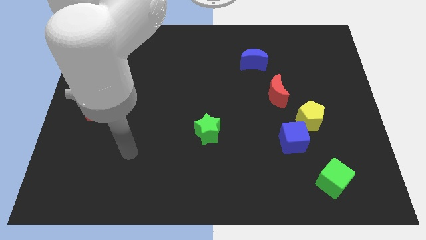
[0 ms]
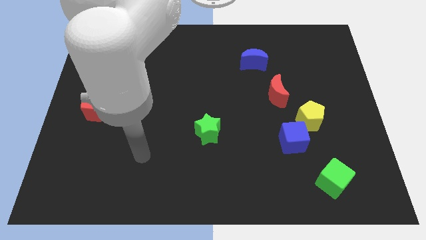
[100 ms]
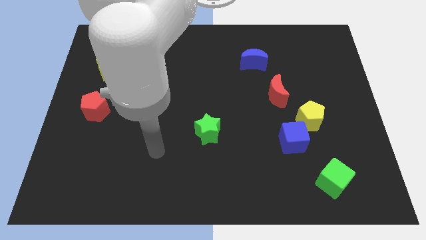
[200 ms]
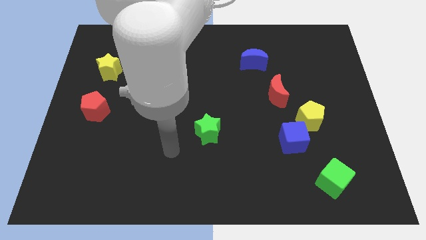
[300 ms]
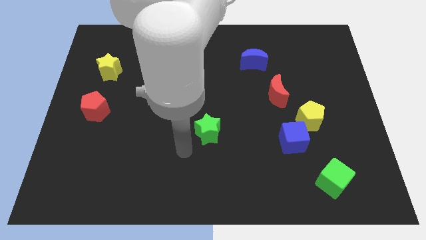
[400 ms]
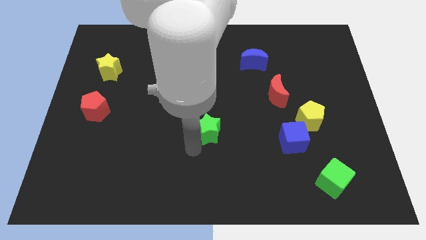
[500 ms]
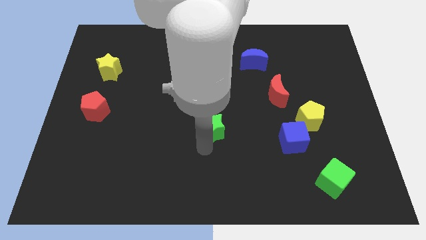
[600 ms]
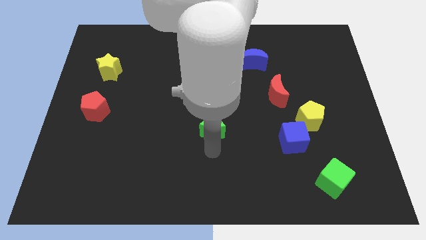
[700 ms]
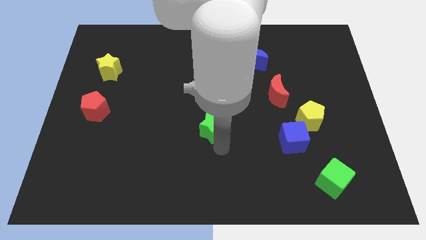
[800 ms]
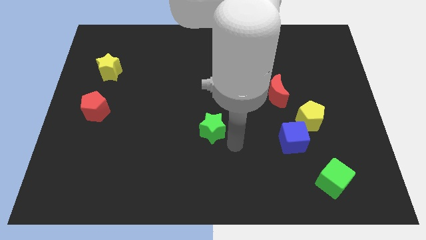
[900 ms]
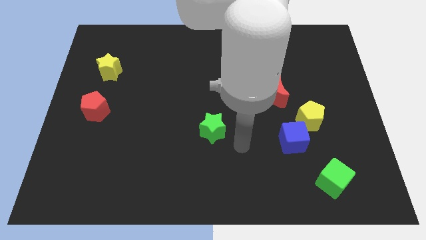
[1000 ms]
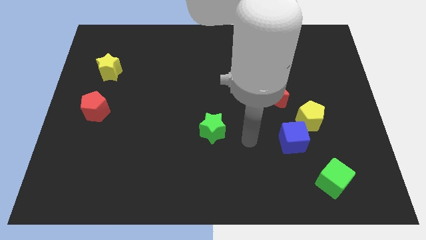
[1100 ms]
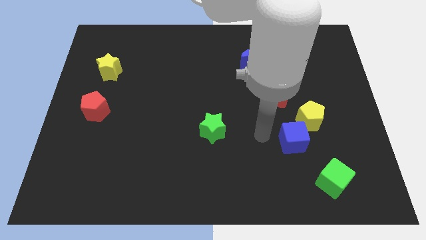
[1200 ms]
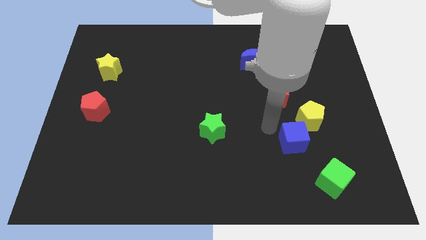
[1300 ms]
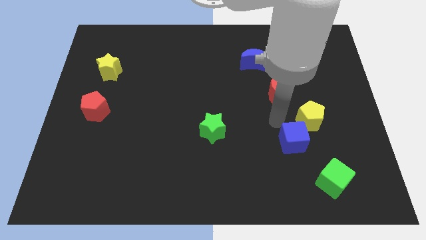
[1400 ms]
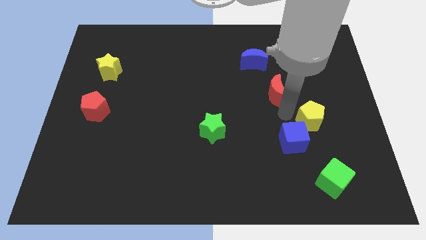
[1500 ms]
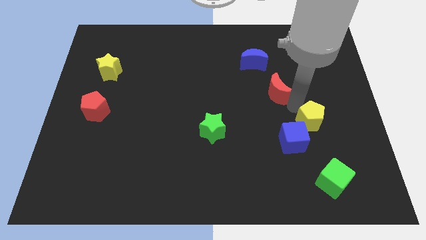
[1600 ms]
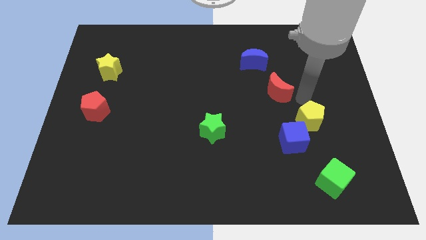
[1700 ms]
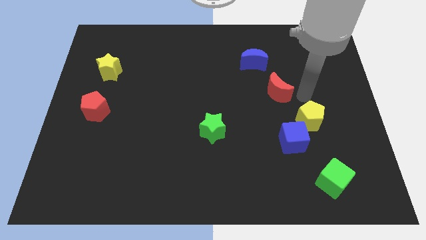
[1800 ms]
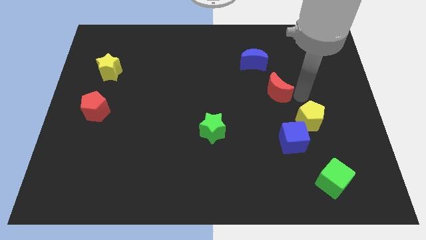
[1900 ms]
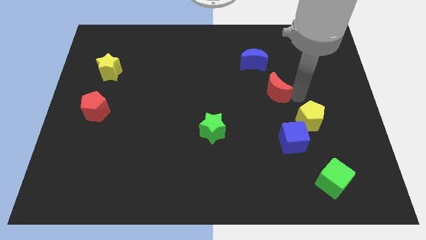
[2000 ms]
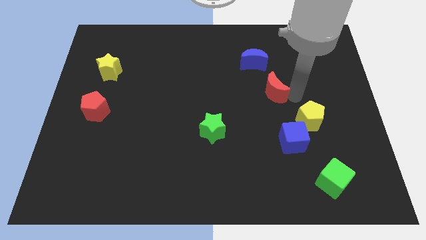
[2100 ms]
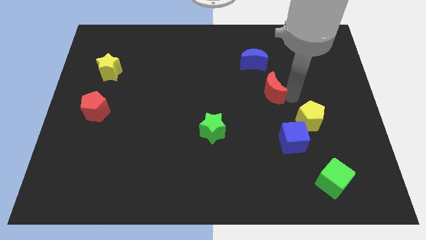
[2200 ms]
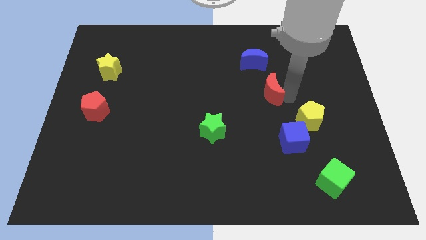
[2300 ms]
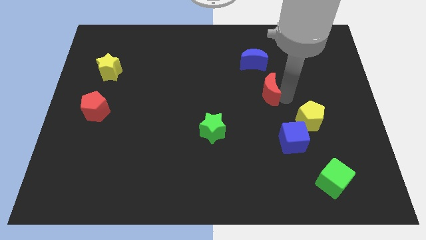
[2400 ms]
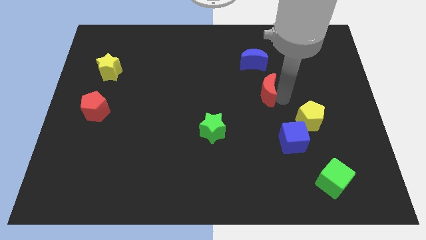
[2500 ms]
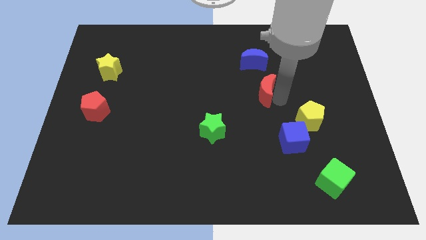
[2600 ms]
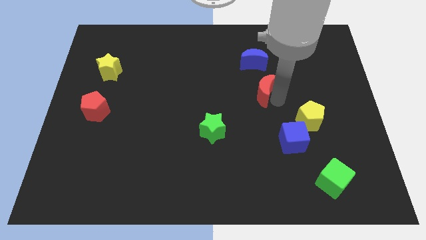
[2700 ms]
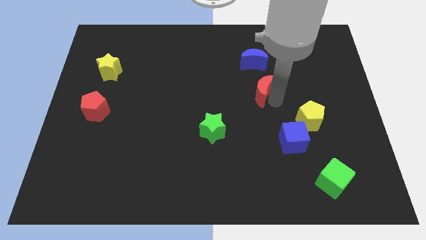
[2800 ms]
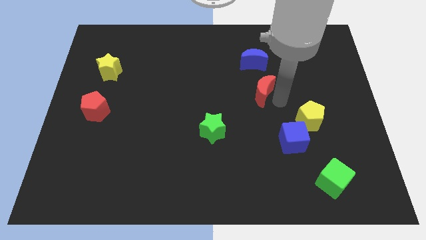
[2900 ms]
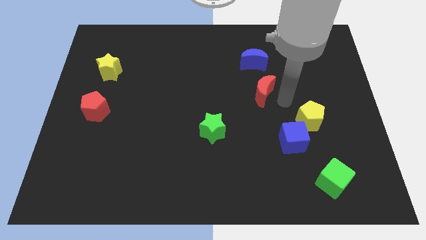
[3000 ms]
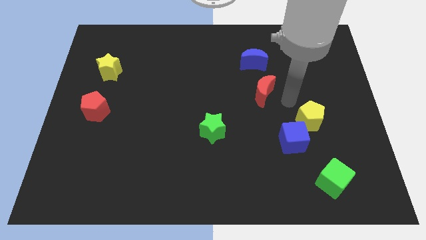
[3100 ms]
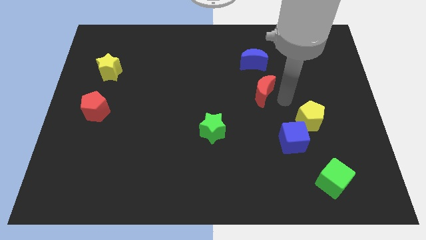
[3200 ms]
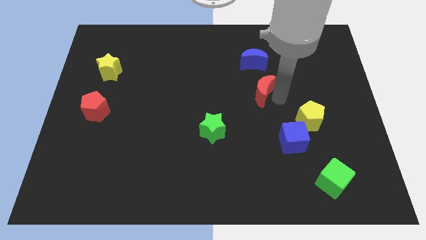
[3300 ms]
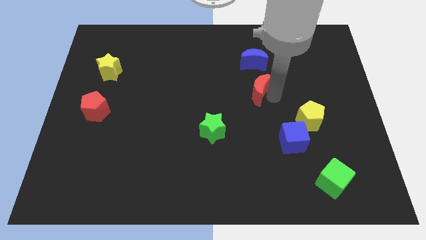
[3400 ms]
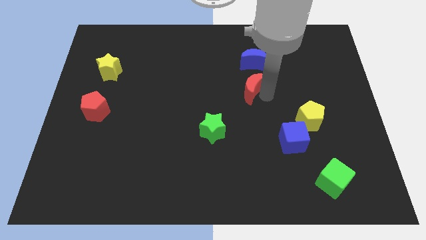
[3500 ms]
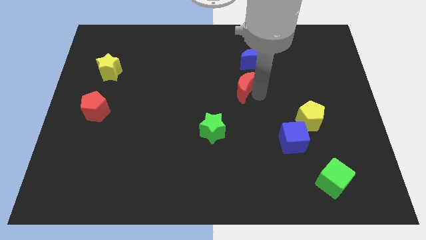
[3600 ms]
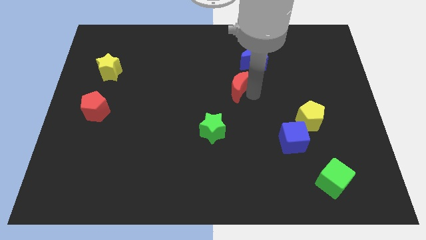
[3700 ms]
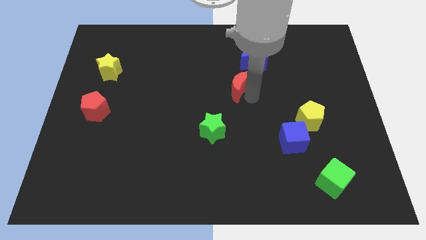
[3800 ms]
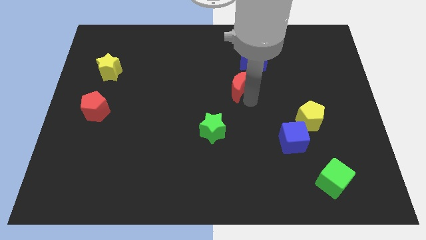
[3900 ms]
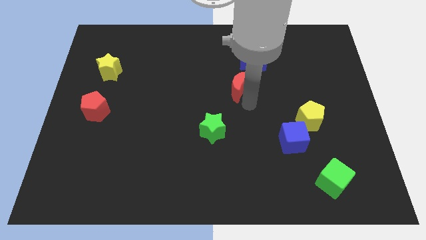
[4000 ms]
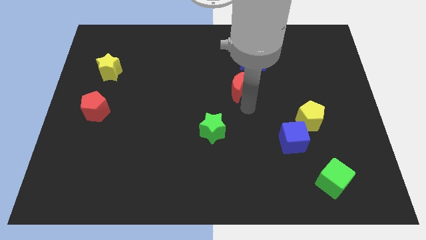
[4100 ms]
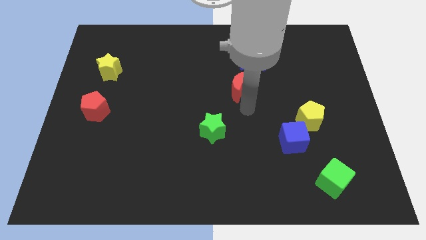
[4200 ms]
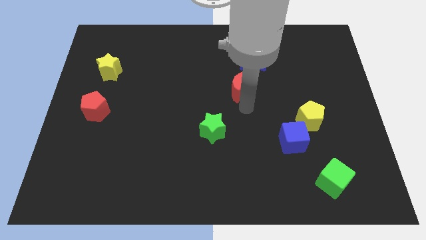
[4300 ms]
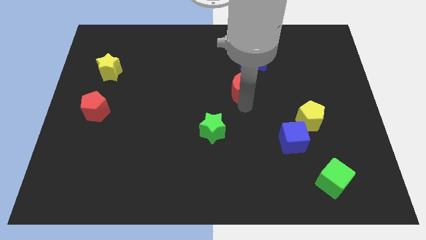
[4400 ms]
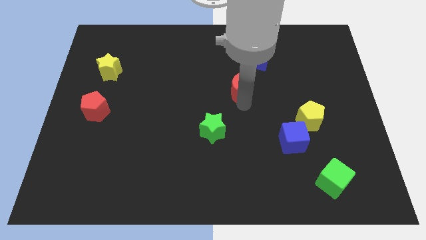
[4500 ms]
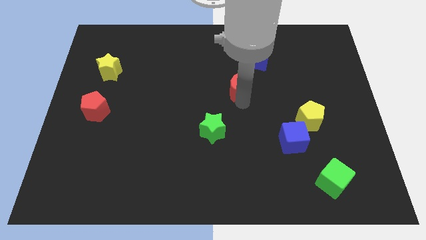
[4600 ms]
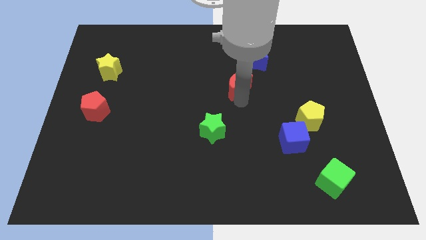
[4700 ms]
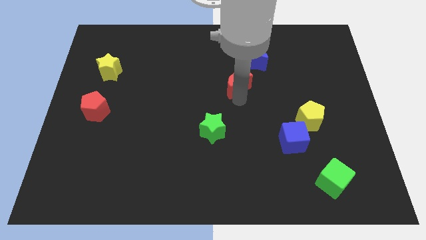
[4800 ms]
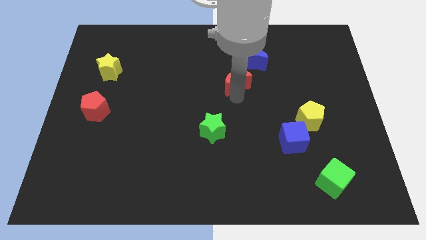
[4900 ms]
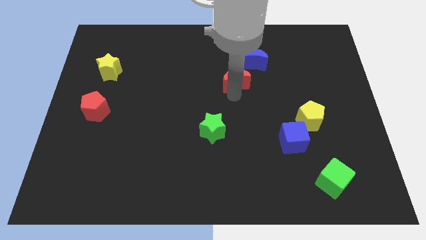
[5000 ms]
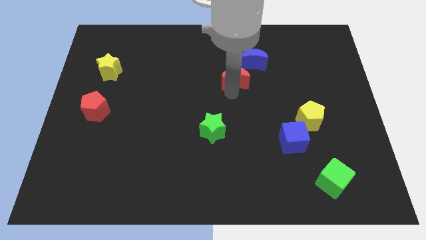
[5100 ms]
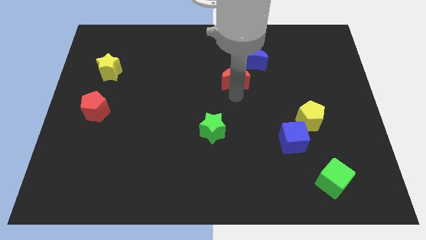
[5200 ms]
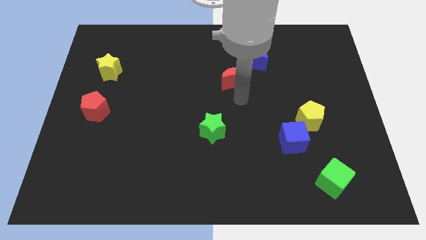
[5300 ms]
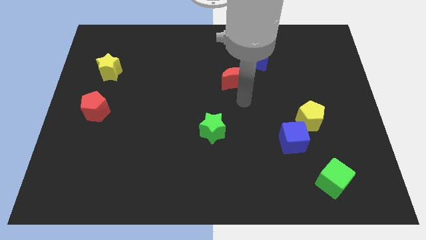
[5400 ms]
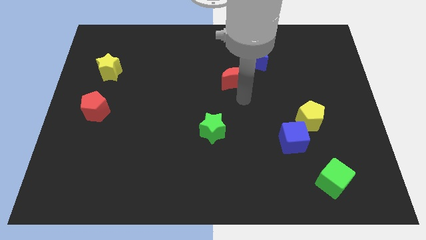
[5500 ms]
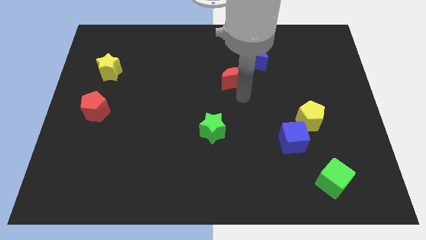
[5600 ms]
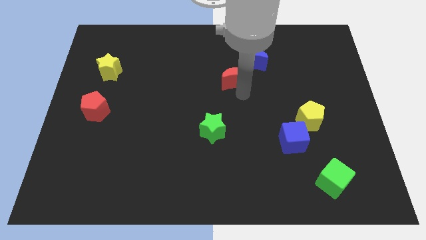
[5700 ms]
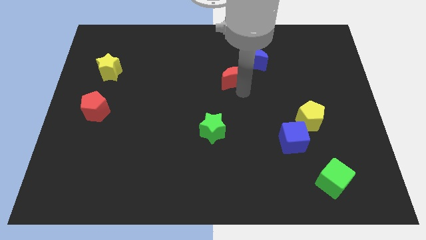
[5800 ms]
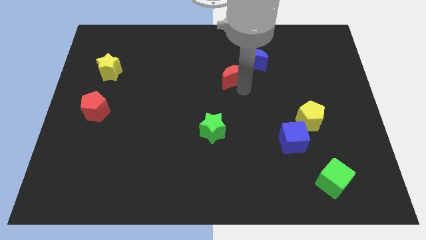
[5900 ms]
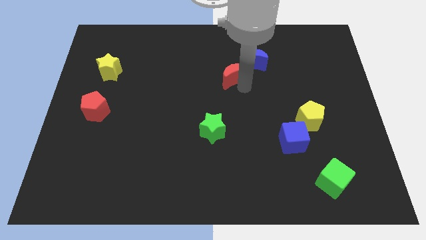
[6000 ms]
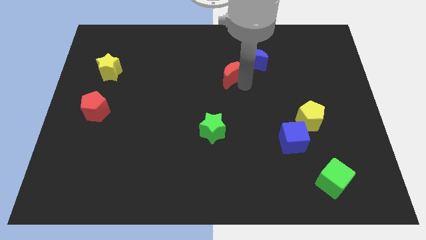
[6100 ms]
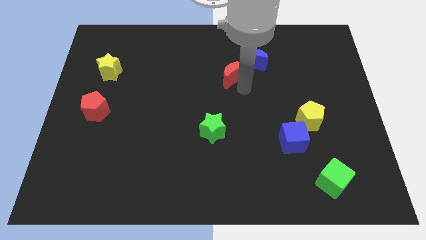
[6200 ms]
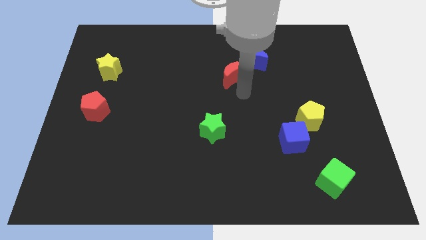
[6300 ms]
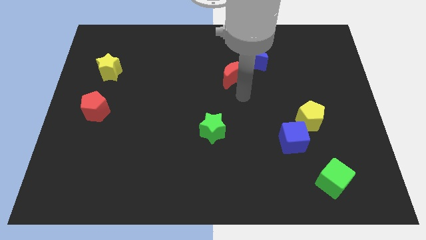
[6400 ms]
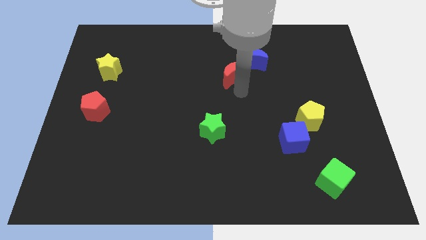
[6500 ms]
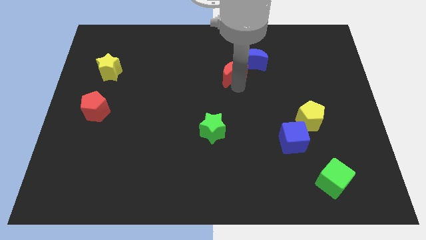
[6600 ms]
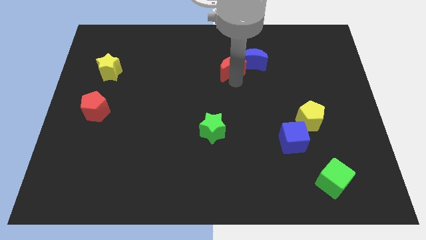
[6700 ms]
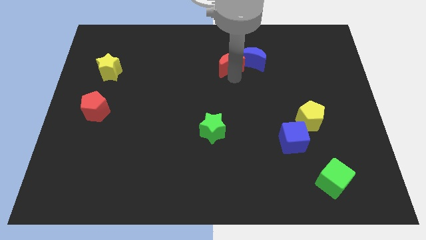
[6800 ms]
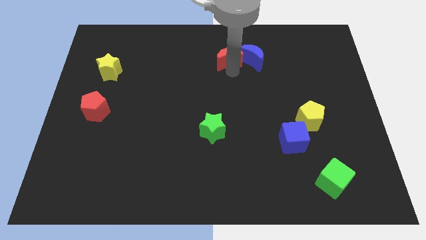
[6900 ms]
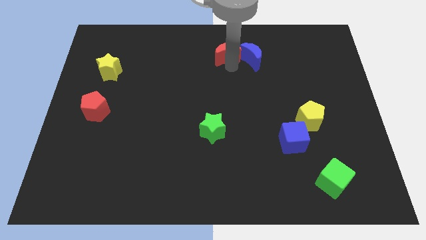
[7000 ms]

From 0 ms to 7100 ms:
move the red moon to the top

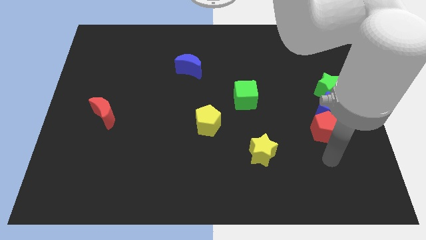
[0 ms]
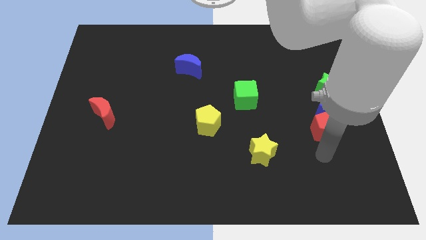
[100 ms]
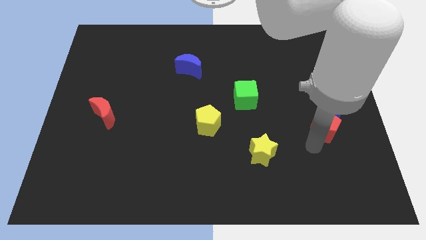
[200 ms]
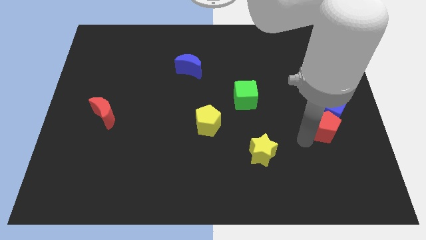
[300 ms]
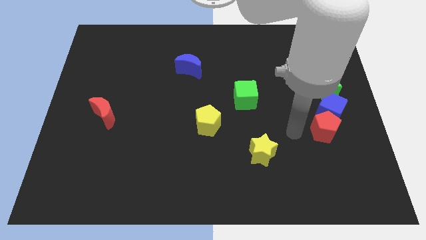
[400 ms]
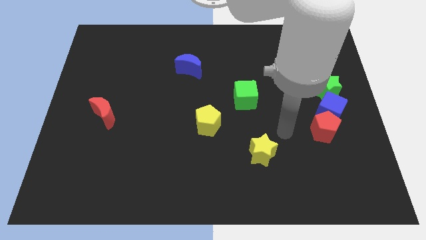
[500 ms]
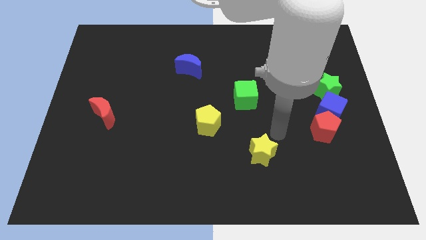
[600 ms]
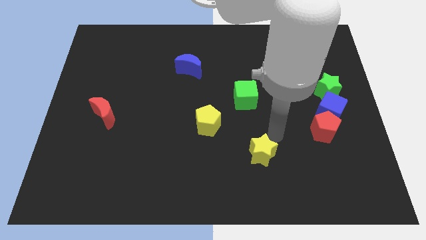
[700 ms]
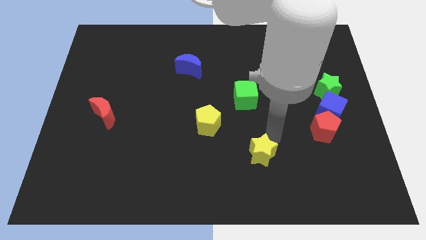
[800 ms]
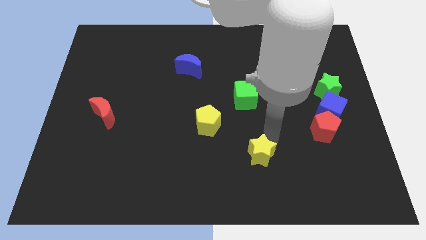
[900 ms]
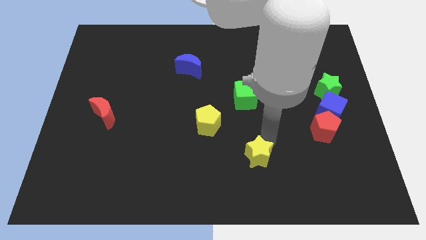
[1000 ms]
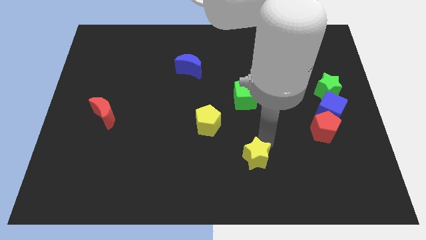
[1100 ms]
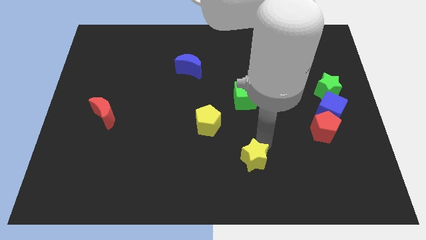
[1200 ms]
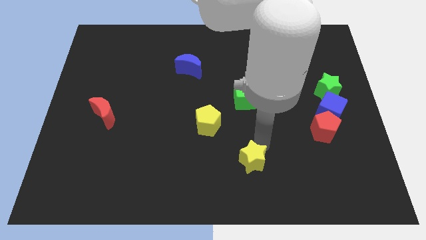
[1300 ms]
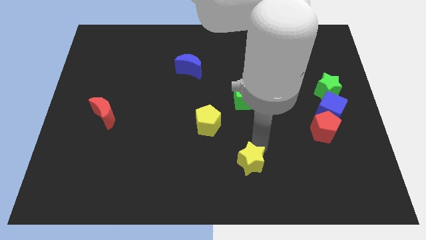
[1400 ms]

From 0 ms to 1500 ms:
push the yellow star to the bottom side
